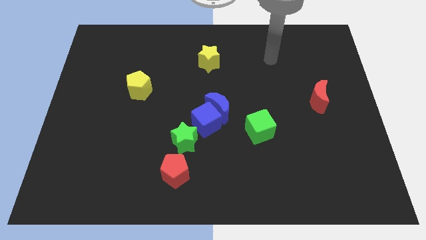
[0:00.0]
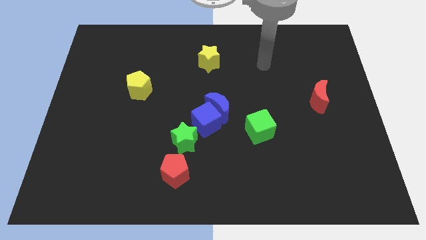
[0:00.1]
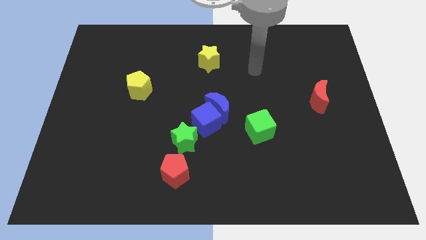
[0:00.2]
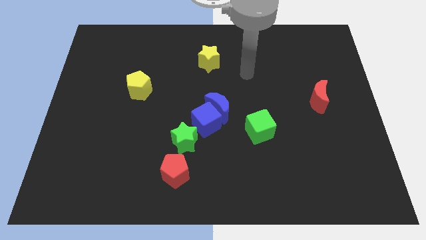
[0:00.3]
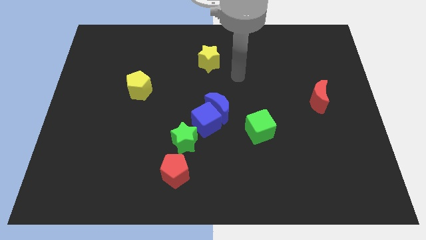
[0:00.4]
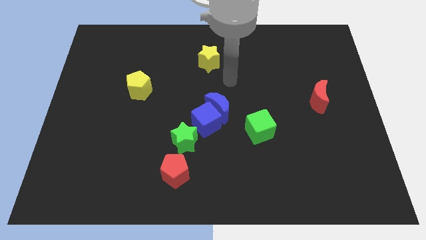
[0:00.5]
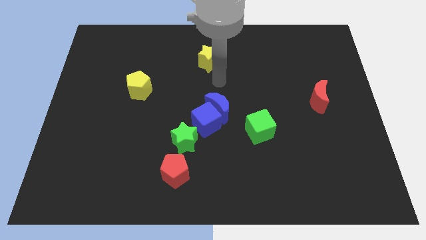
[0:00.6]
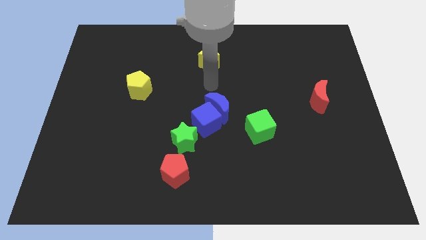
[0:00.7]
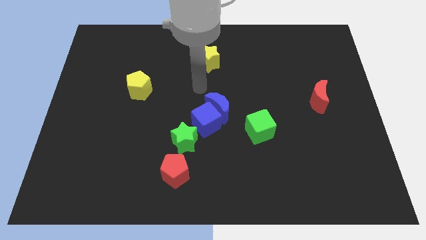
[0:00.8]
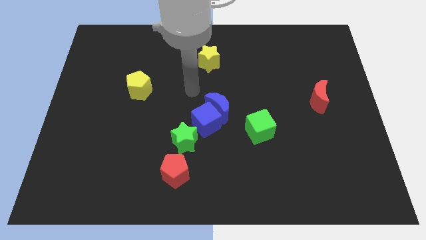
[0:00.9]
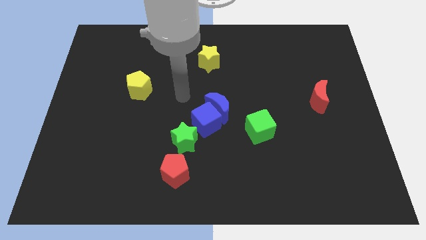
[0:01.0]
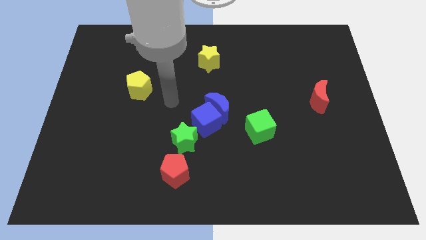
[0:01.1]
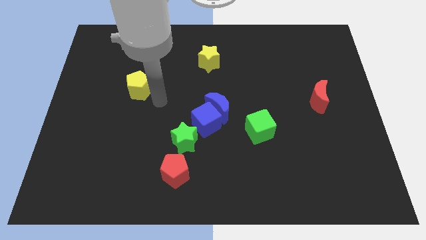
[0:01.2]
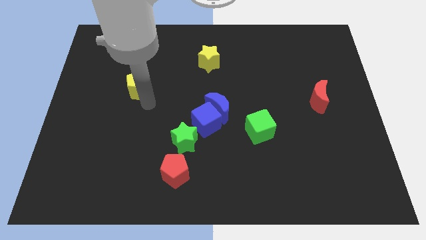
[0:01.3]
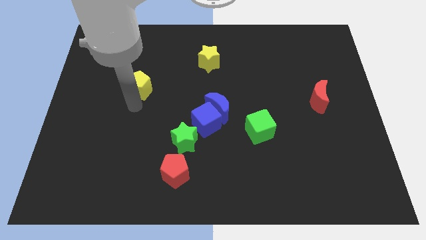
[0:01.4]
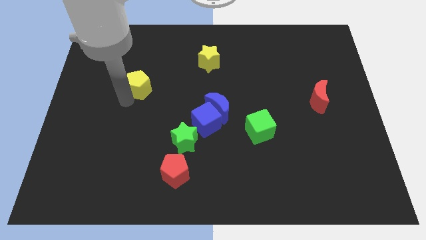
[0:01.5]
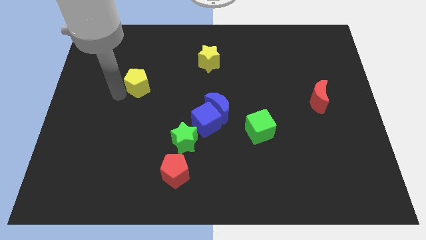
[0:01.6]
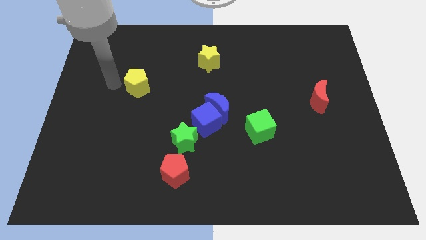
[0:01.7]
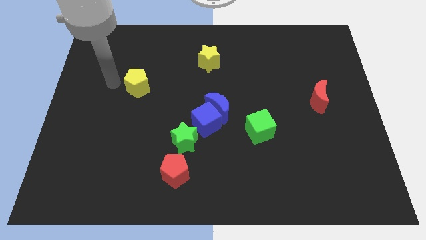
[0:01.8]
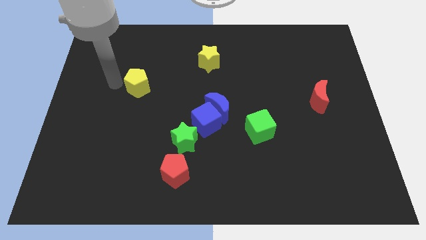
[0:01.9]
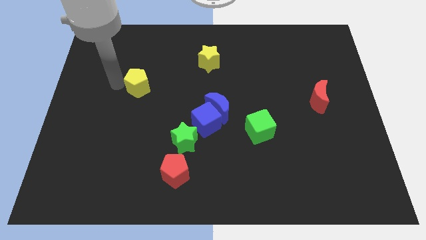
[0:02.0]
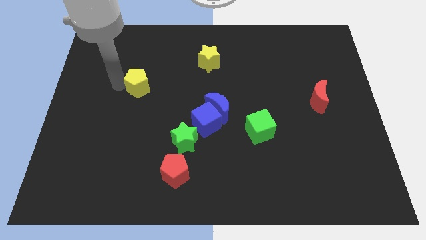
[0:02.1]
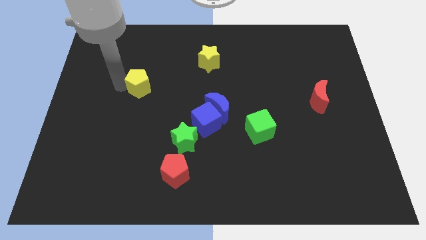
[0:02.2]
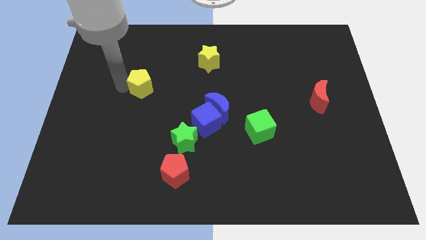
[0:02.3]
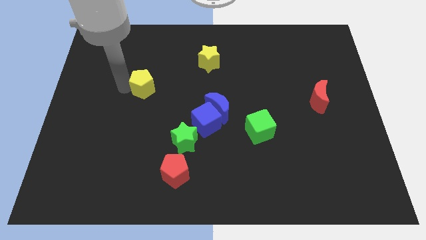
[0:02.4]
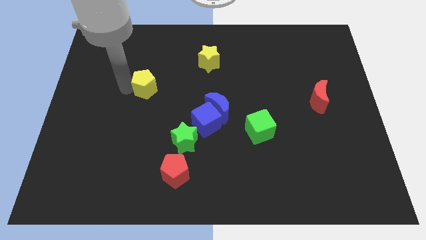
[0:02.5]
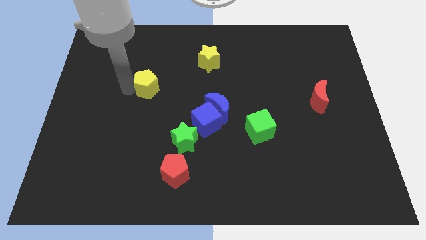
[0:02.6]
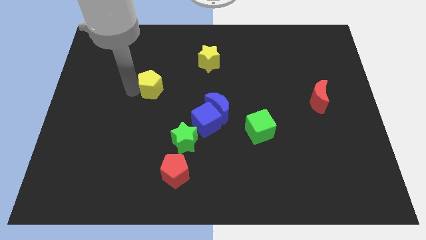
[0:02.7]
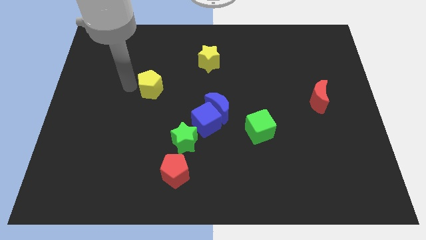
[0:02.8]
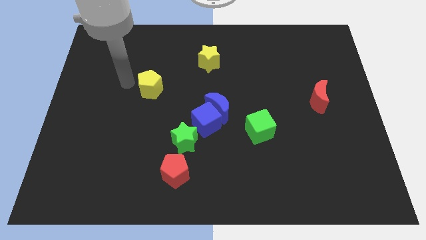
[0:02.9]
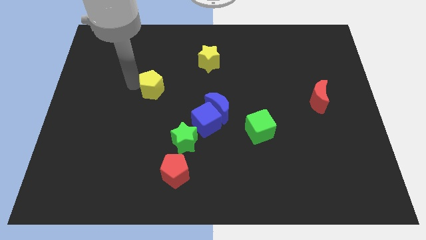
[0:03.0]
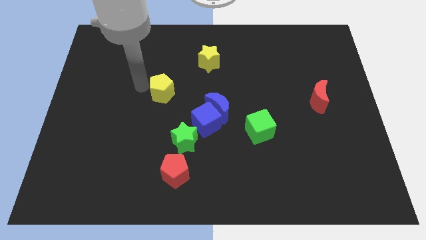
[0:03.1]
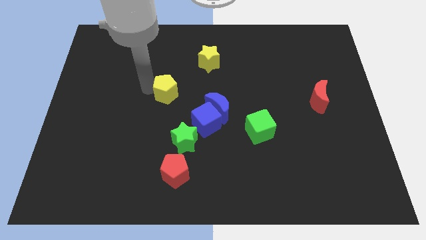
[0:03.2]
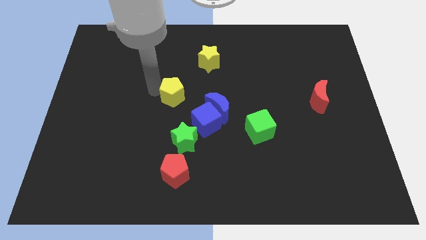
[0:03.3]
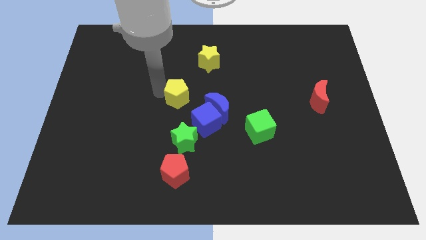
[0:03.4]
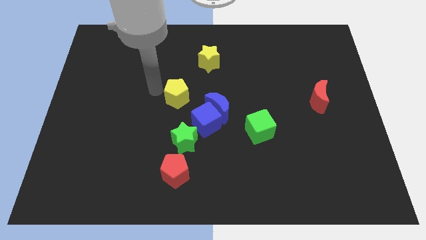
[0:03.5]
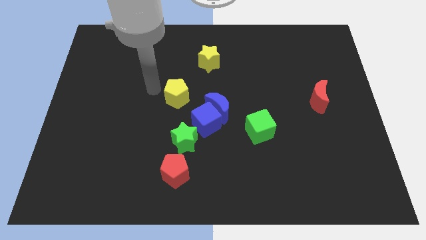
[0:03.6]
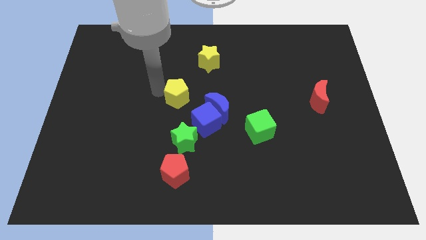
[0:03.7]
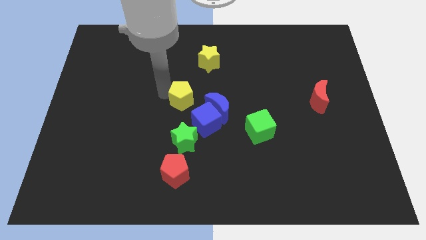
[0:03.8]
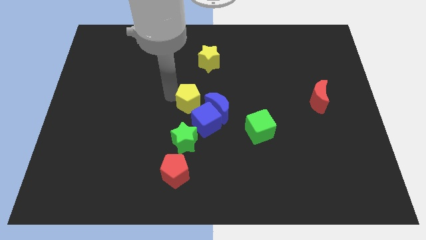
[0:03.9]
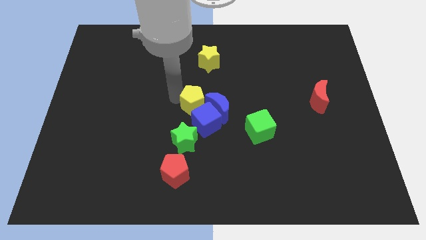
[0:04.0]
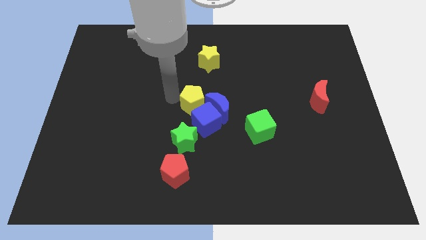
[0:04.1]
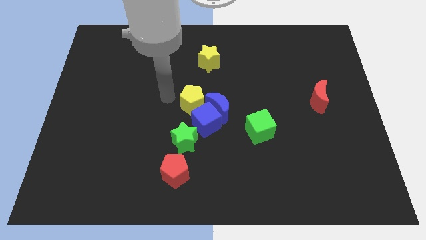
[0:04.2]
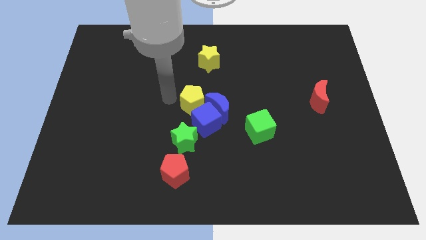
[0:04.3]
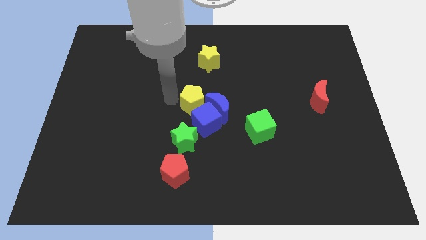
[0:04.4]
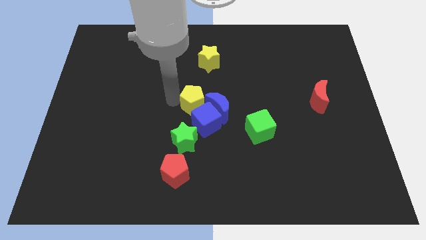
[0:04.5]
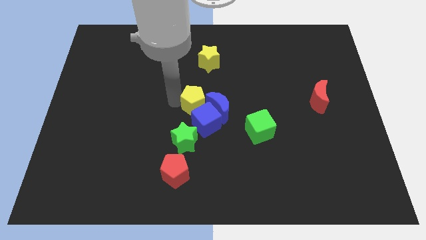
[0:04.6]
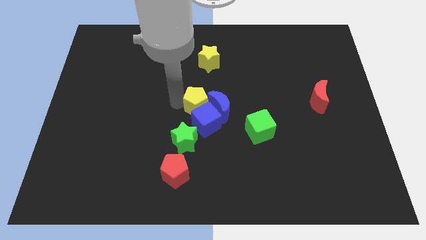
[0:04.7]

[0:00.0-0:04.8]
move the yellow pentagon to the blue moon

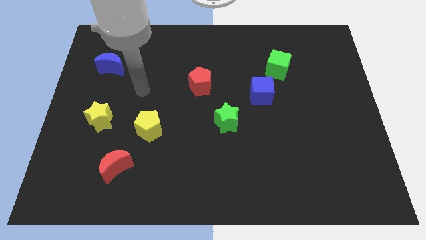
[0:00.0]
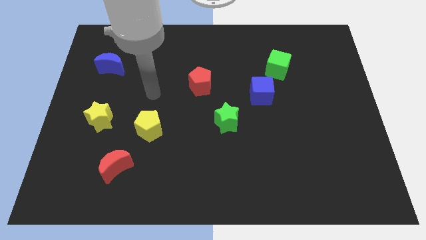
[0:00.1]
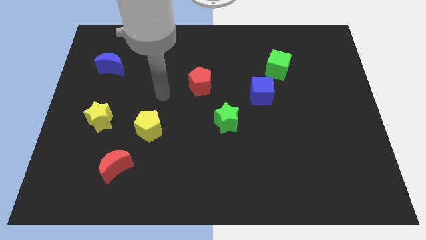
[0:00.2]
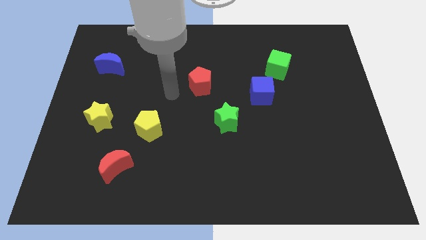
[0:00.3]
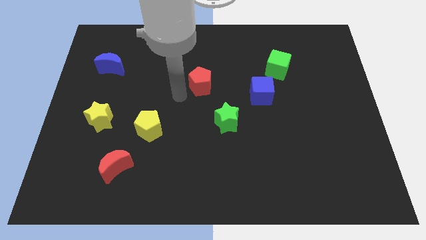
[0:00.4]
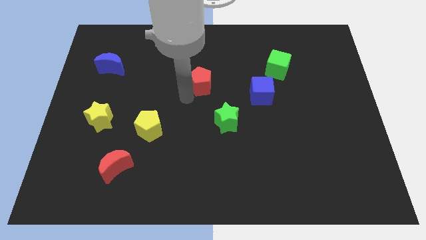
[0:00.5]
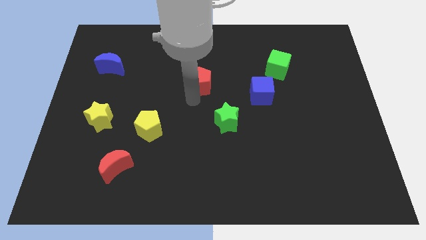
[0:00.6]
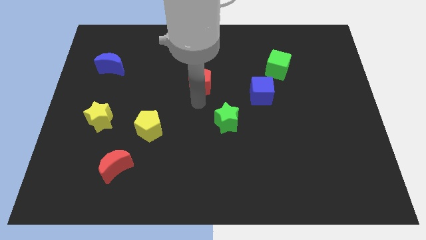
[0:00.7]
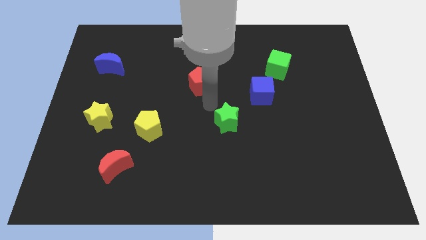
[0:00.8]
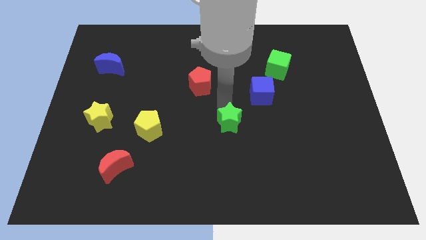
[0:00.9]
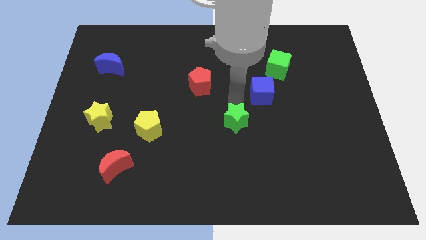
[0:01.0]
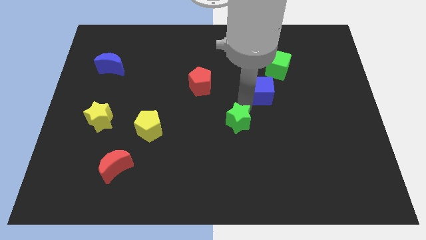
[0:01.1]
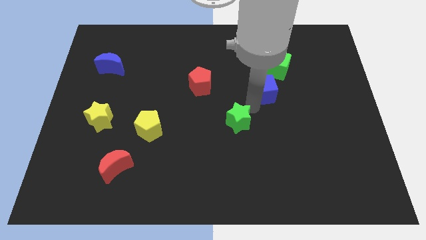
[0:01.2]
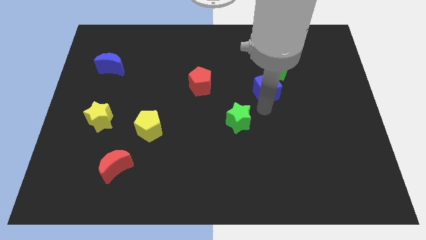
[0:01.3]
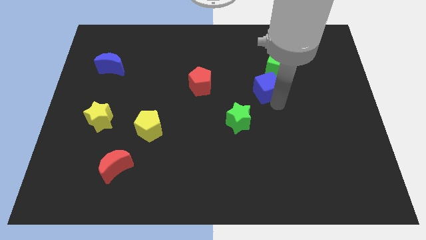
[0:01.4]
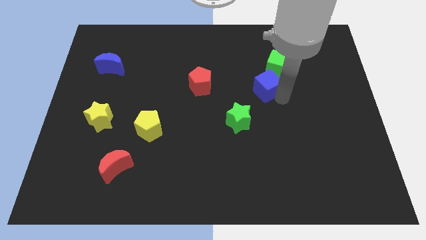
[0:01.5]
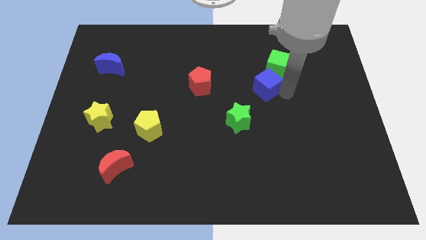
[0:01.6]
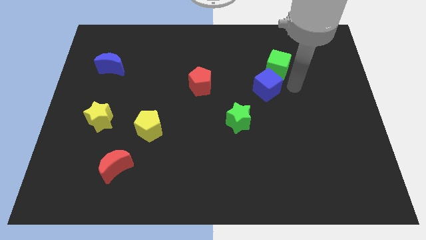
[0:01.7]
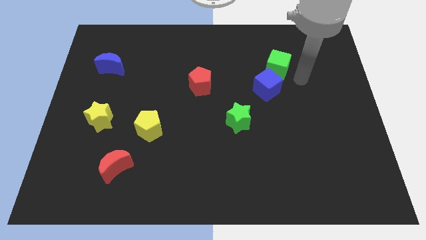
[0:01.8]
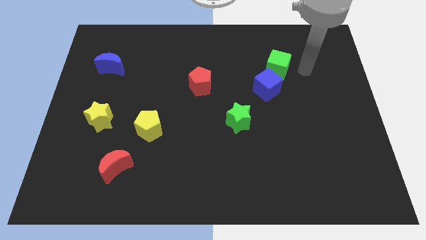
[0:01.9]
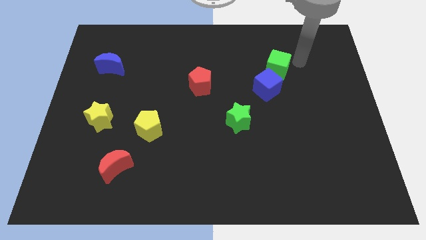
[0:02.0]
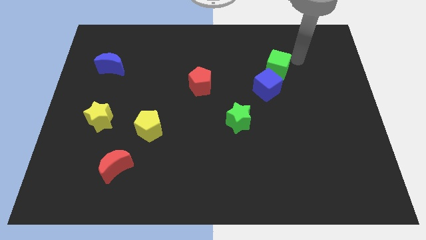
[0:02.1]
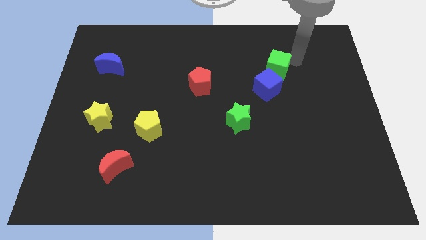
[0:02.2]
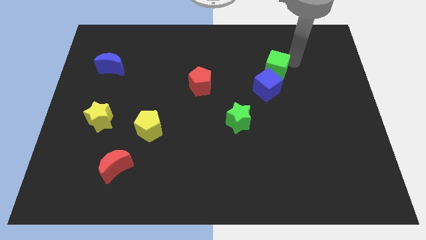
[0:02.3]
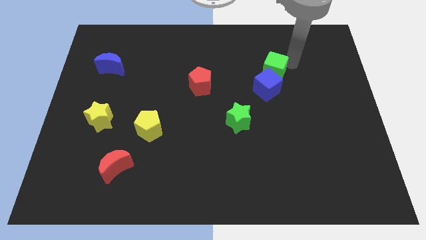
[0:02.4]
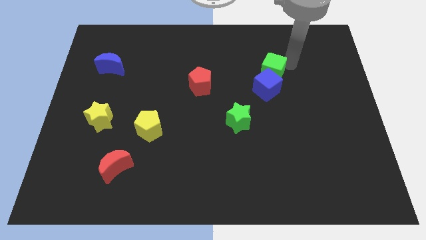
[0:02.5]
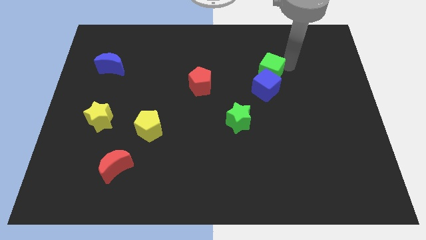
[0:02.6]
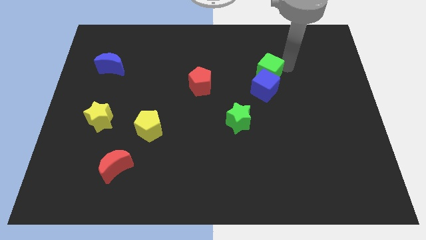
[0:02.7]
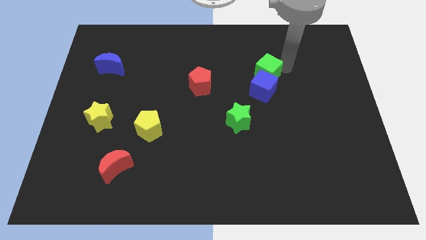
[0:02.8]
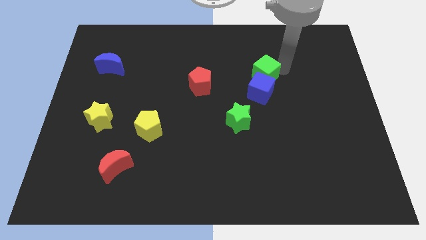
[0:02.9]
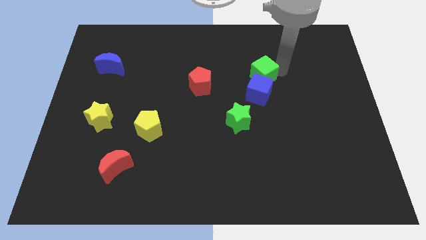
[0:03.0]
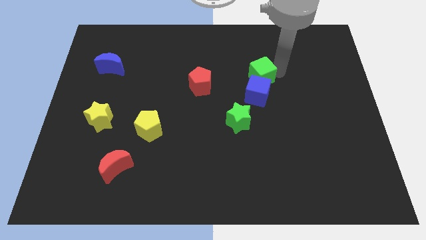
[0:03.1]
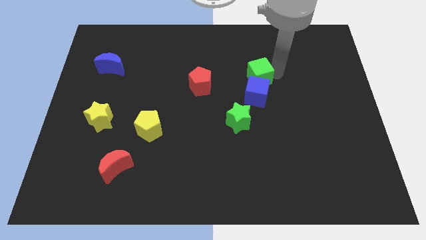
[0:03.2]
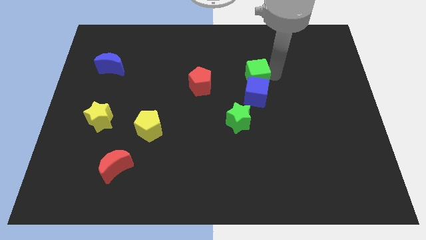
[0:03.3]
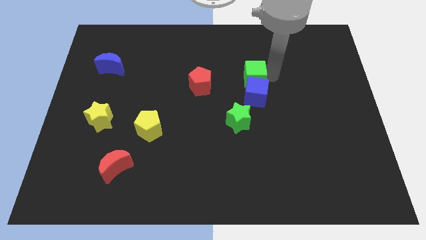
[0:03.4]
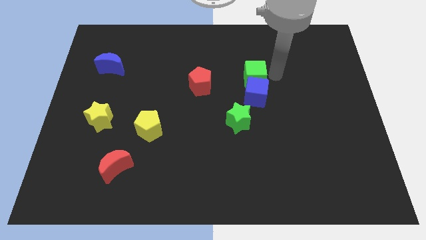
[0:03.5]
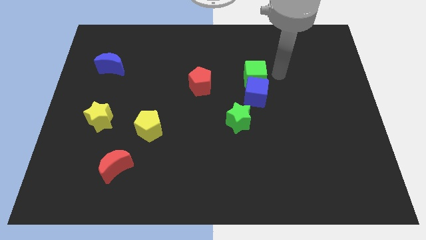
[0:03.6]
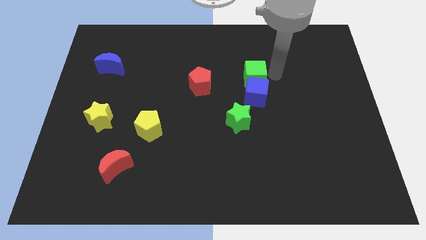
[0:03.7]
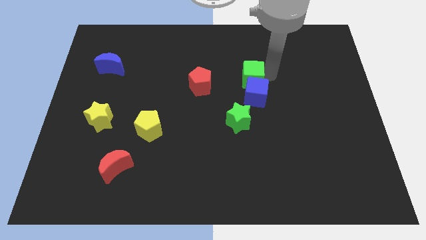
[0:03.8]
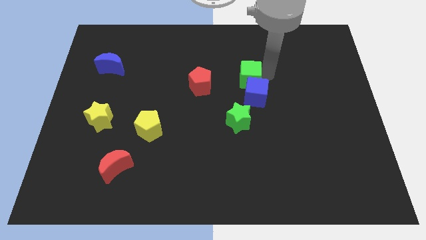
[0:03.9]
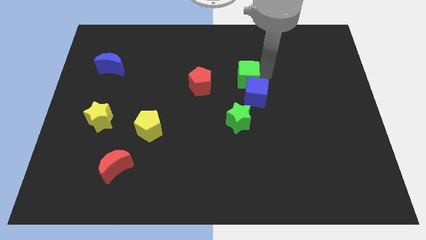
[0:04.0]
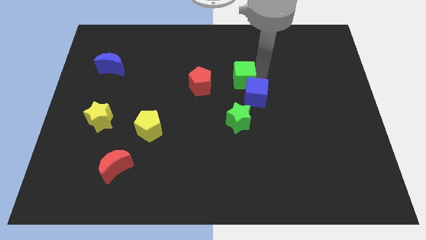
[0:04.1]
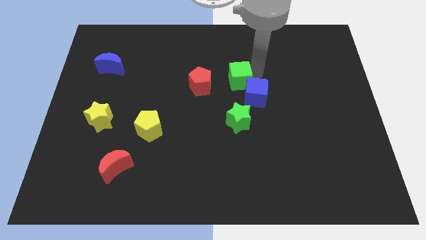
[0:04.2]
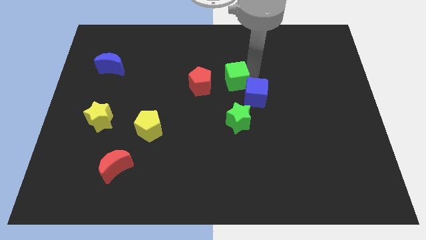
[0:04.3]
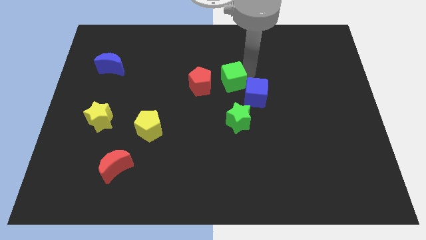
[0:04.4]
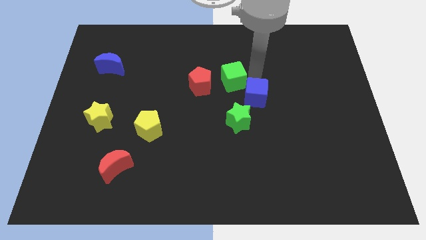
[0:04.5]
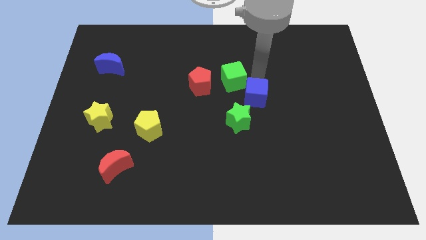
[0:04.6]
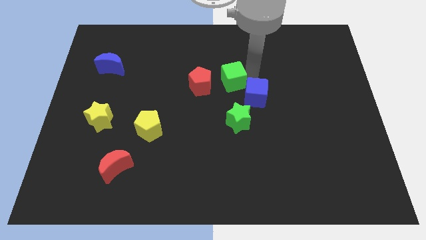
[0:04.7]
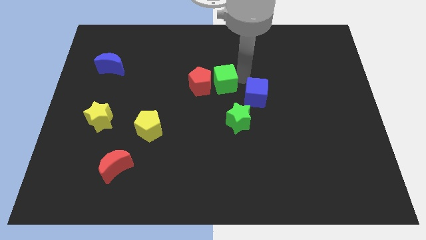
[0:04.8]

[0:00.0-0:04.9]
slide the green cube to the red pentagon
